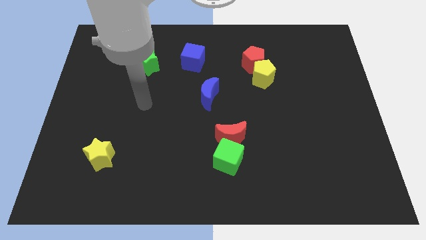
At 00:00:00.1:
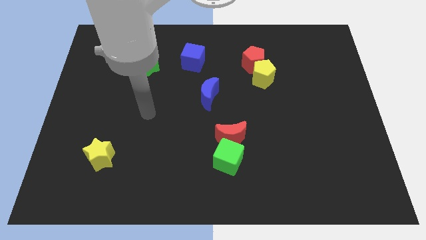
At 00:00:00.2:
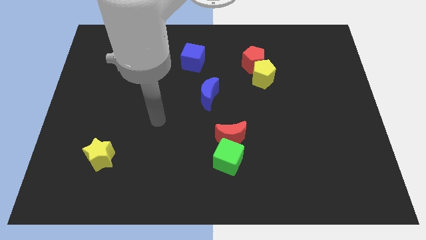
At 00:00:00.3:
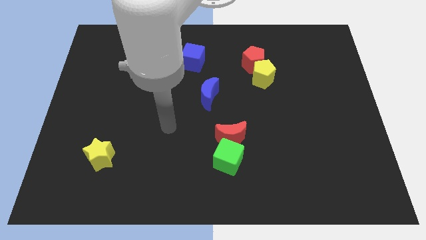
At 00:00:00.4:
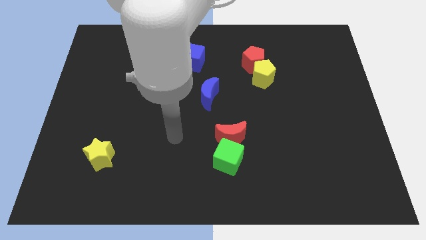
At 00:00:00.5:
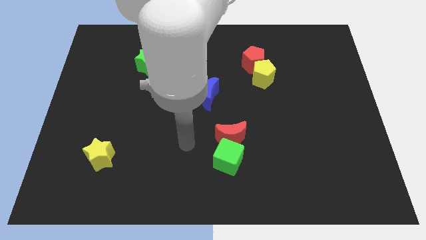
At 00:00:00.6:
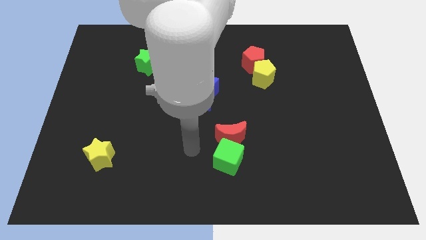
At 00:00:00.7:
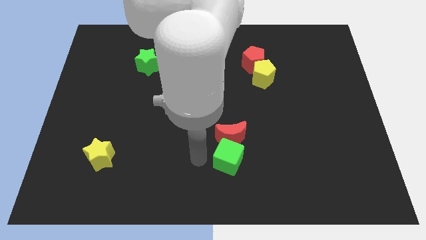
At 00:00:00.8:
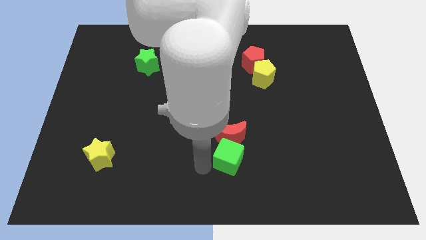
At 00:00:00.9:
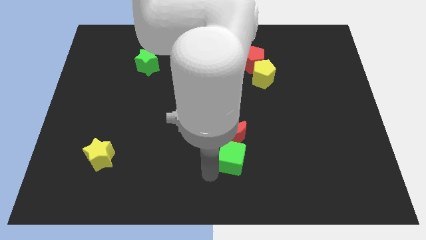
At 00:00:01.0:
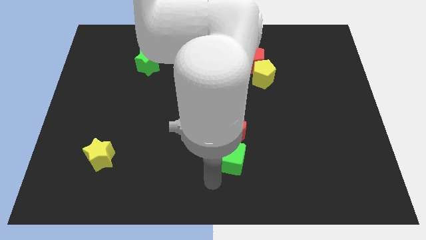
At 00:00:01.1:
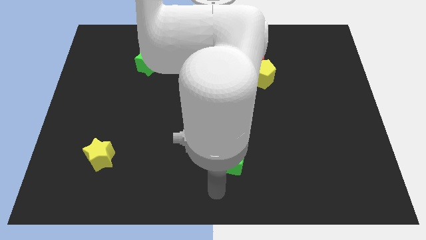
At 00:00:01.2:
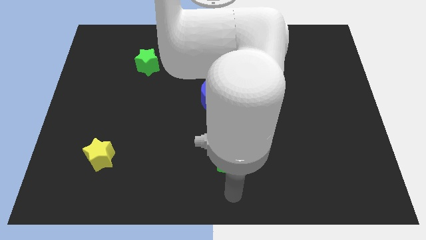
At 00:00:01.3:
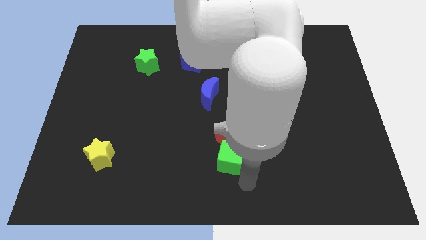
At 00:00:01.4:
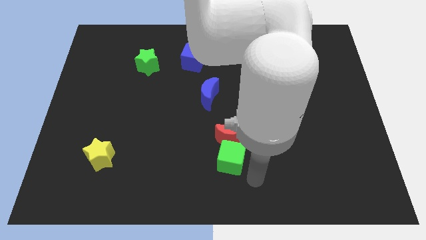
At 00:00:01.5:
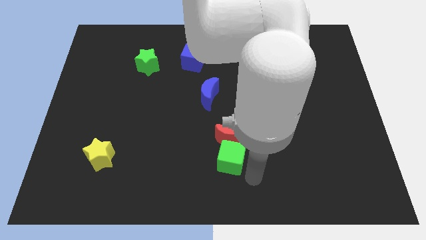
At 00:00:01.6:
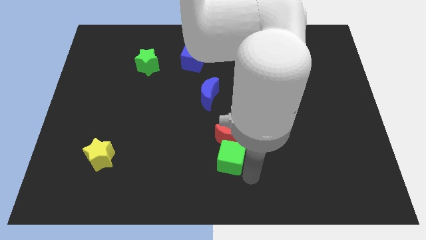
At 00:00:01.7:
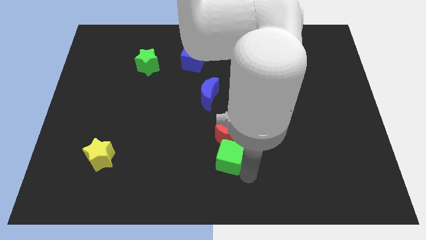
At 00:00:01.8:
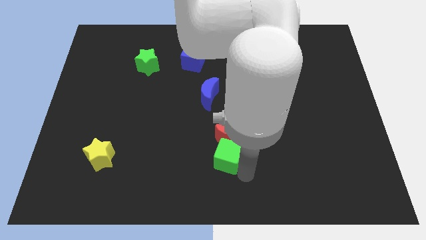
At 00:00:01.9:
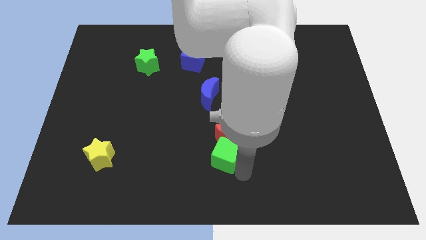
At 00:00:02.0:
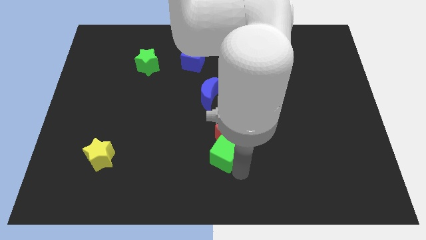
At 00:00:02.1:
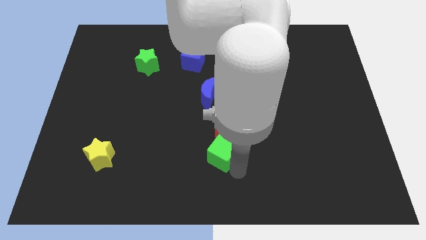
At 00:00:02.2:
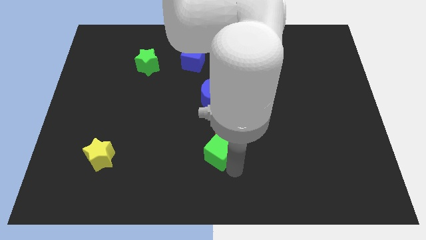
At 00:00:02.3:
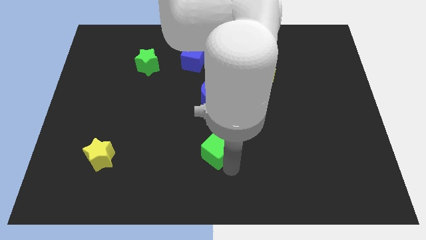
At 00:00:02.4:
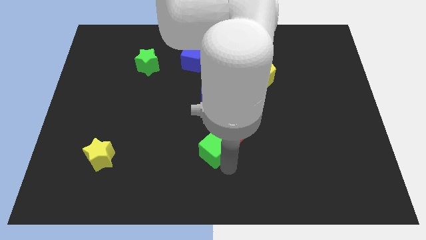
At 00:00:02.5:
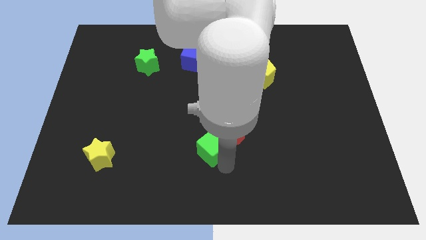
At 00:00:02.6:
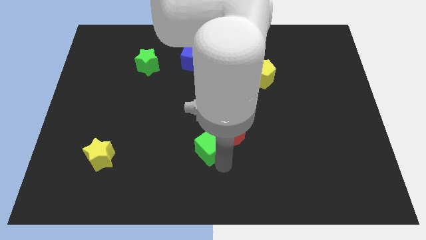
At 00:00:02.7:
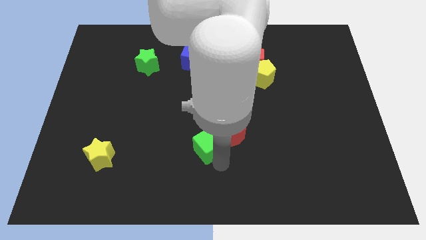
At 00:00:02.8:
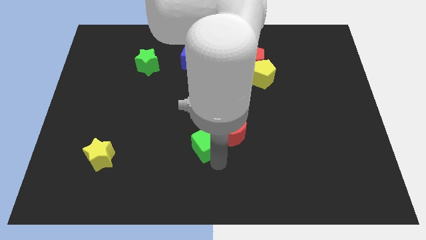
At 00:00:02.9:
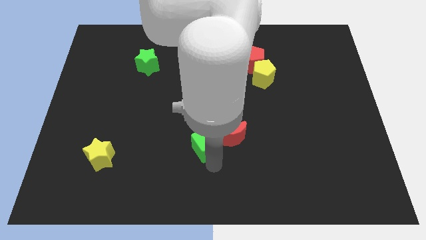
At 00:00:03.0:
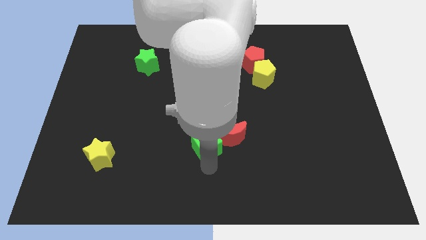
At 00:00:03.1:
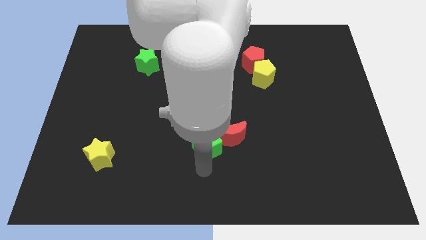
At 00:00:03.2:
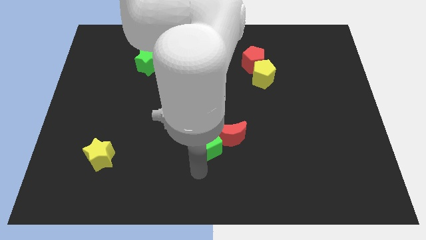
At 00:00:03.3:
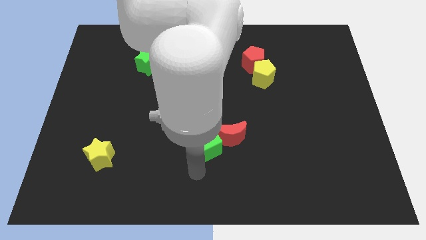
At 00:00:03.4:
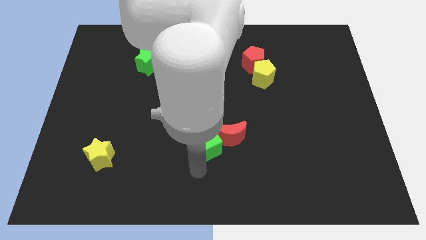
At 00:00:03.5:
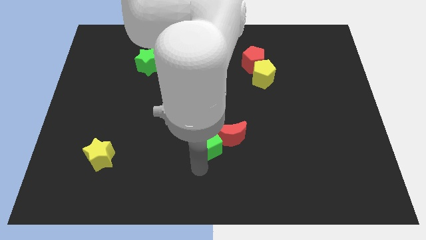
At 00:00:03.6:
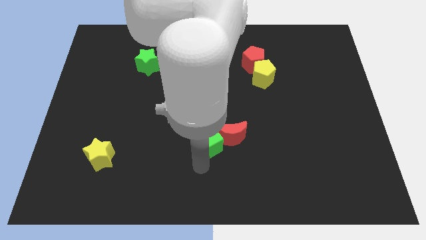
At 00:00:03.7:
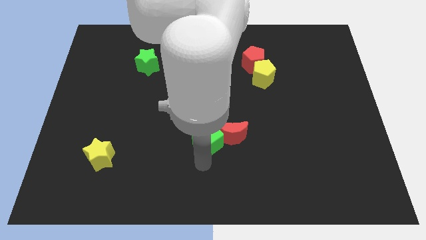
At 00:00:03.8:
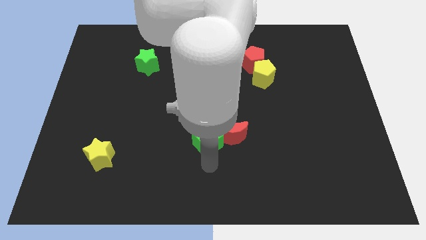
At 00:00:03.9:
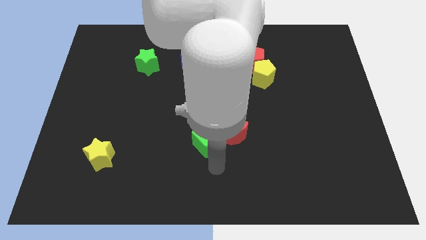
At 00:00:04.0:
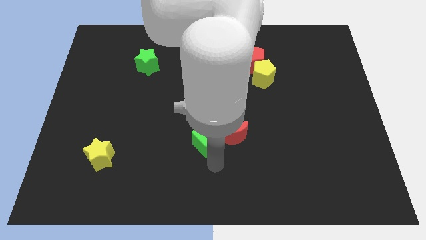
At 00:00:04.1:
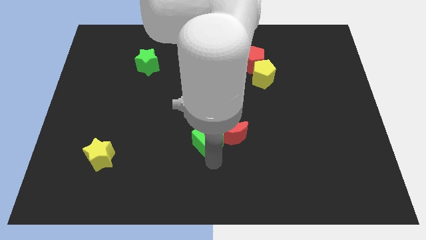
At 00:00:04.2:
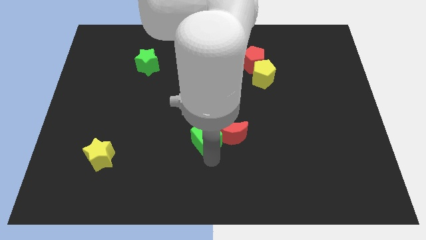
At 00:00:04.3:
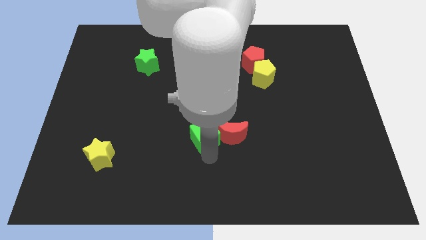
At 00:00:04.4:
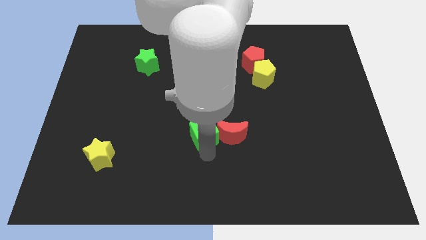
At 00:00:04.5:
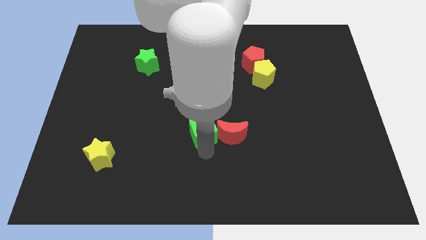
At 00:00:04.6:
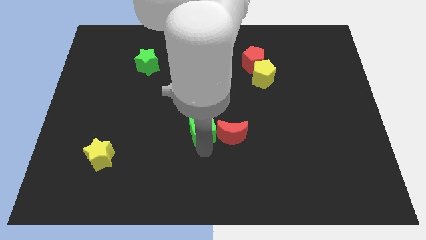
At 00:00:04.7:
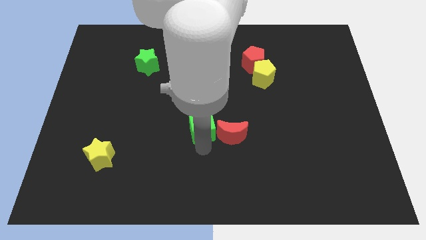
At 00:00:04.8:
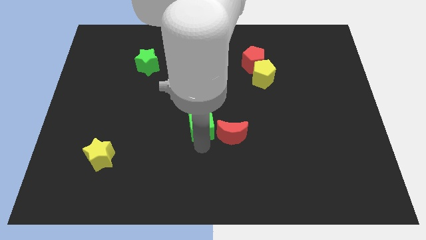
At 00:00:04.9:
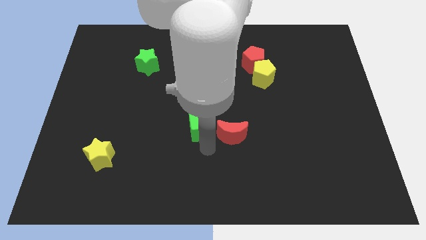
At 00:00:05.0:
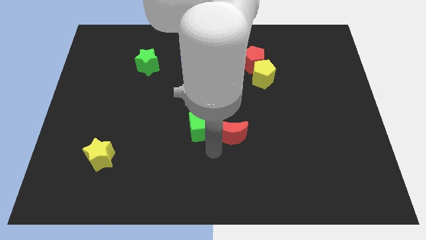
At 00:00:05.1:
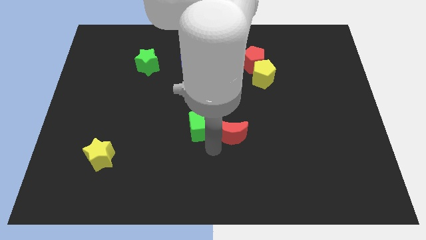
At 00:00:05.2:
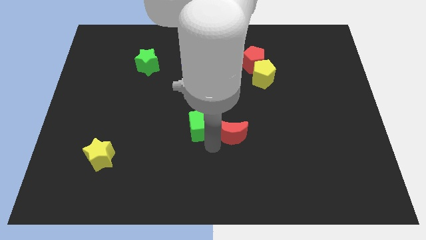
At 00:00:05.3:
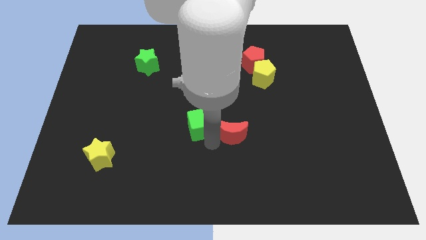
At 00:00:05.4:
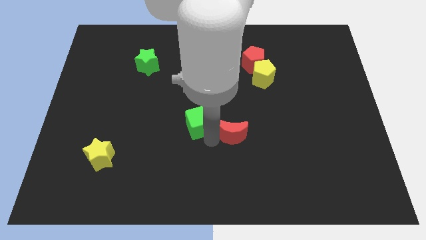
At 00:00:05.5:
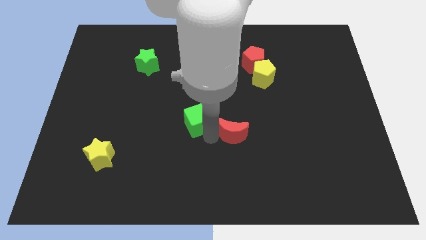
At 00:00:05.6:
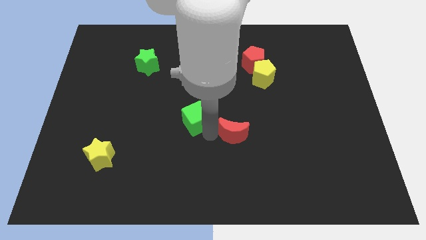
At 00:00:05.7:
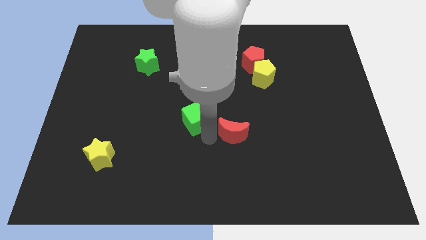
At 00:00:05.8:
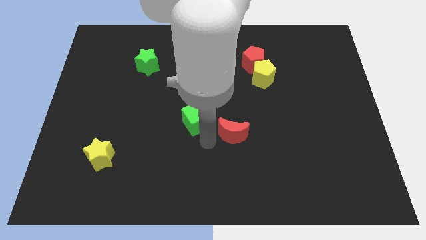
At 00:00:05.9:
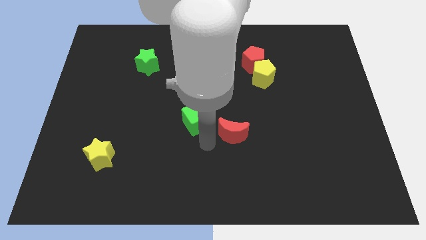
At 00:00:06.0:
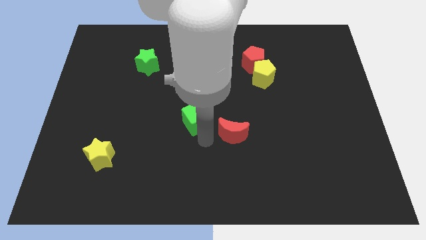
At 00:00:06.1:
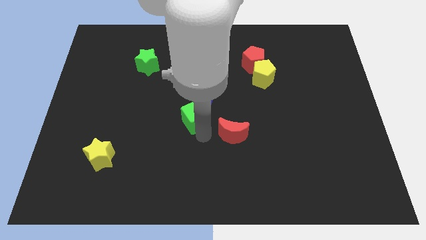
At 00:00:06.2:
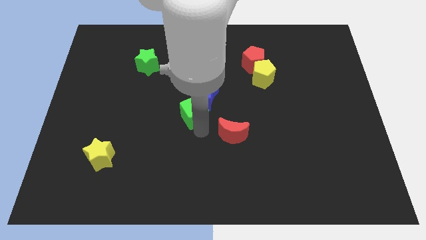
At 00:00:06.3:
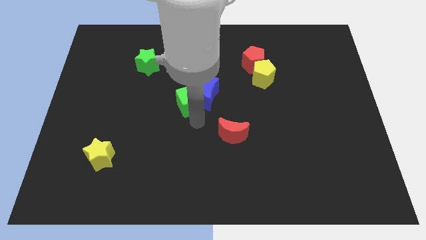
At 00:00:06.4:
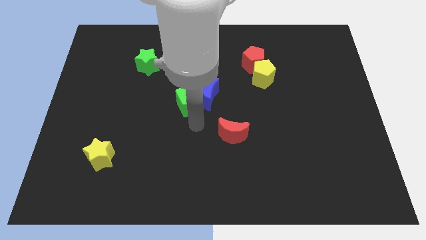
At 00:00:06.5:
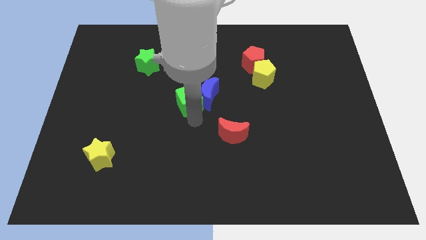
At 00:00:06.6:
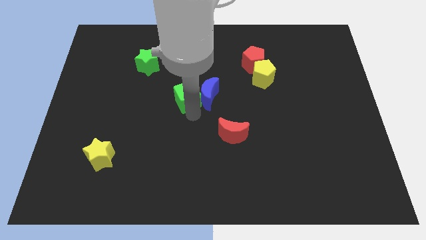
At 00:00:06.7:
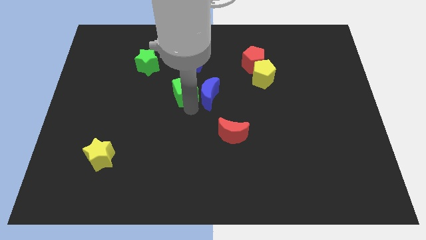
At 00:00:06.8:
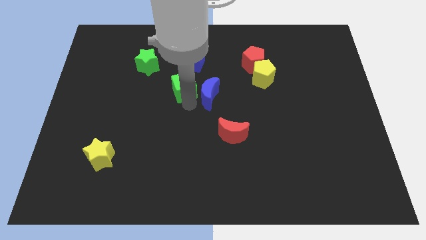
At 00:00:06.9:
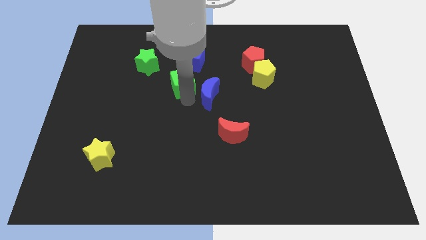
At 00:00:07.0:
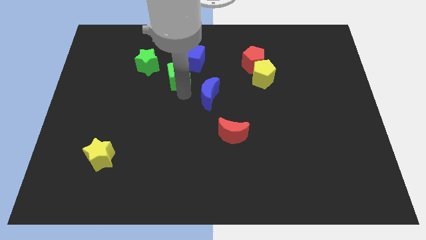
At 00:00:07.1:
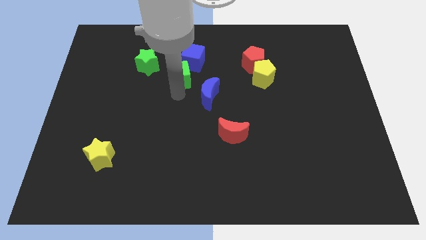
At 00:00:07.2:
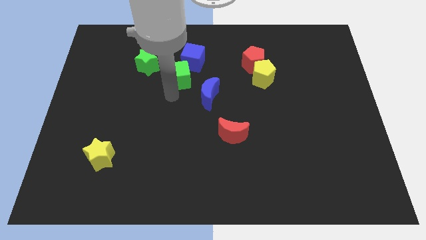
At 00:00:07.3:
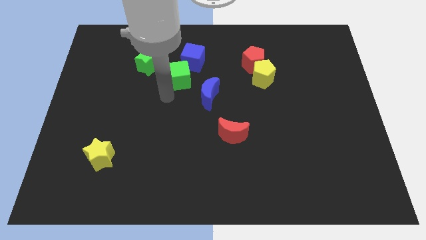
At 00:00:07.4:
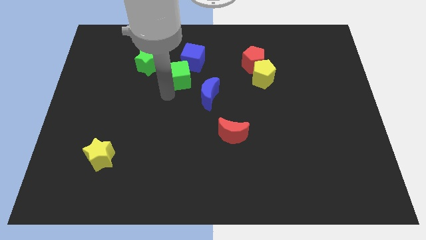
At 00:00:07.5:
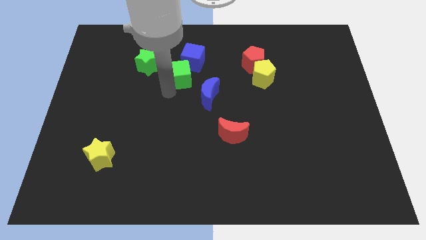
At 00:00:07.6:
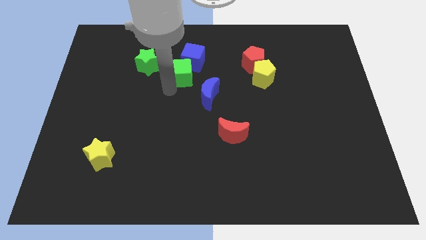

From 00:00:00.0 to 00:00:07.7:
push the green cube to the blue cube
